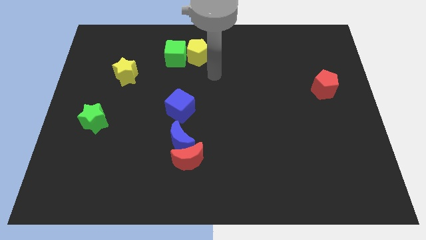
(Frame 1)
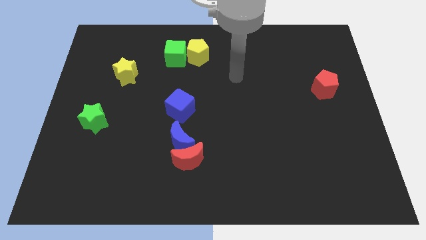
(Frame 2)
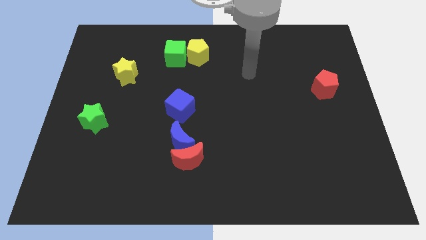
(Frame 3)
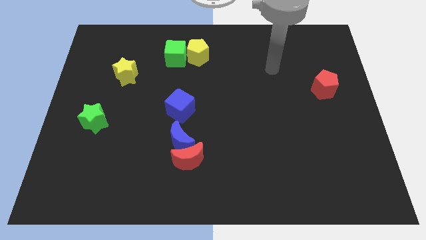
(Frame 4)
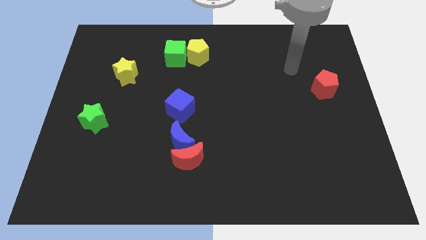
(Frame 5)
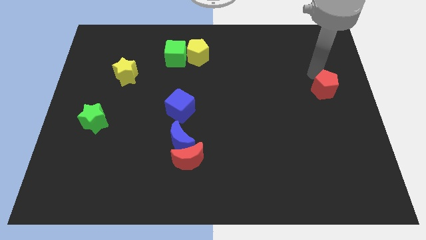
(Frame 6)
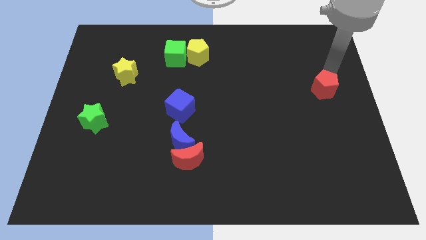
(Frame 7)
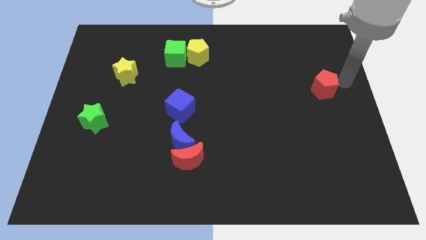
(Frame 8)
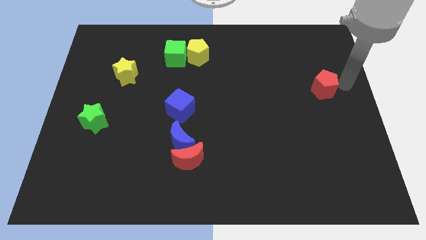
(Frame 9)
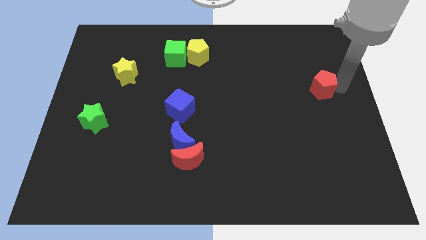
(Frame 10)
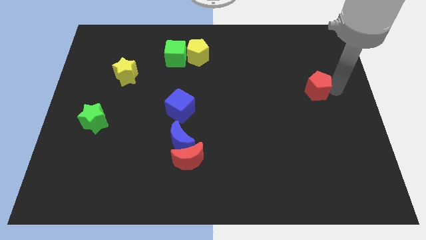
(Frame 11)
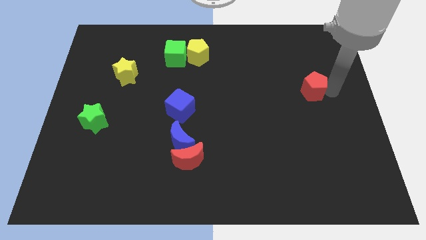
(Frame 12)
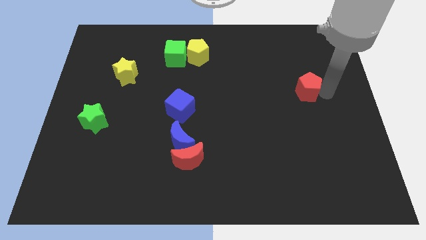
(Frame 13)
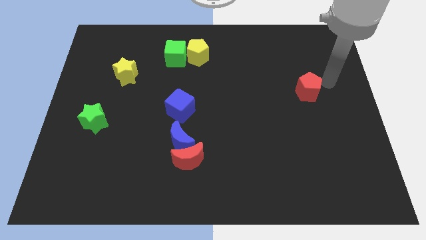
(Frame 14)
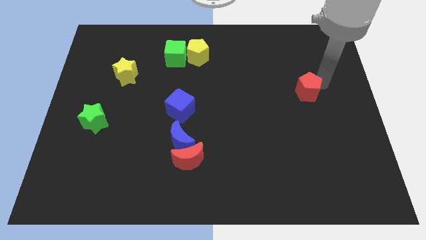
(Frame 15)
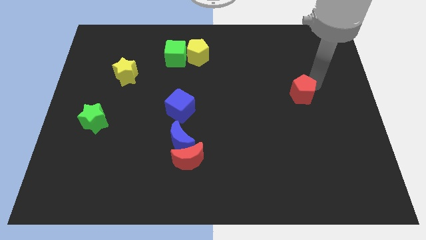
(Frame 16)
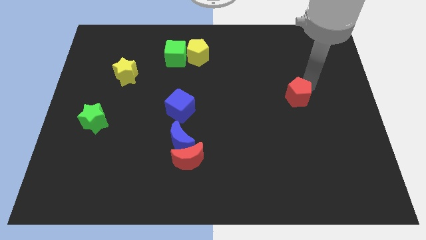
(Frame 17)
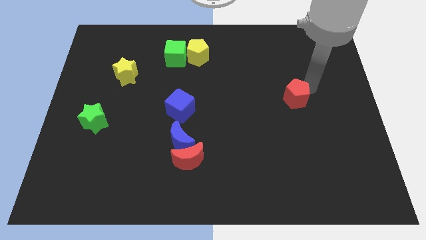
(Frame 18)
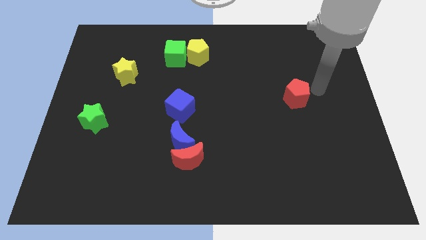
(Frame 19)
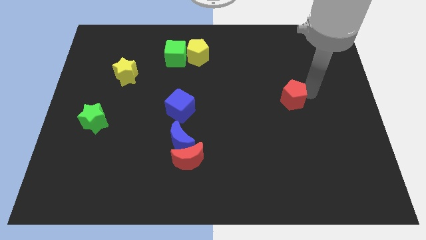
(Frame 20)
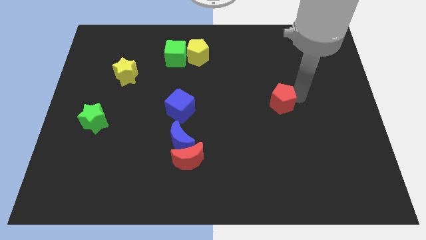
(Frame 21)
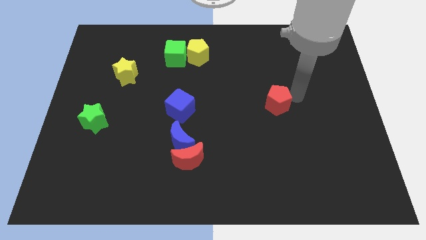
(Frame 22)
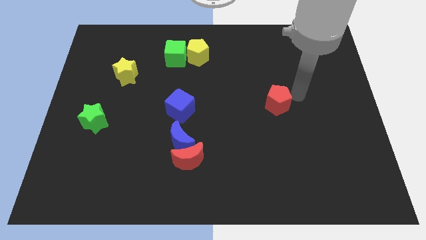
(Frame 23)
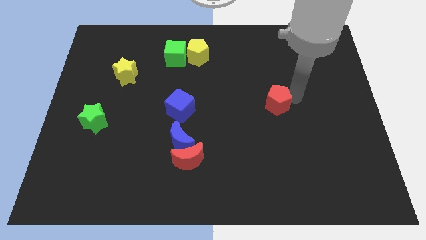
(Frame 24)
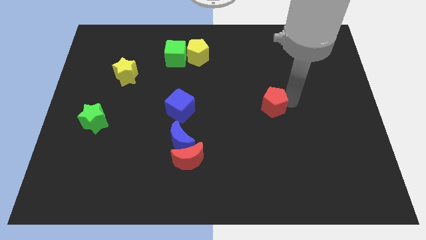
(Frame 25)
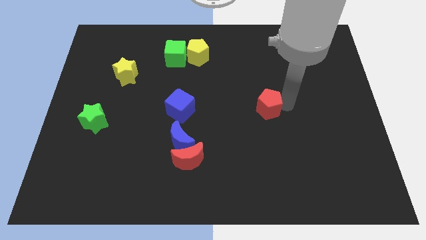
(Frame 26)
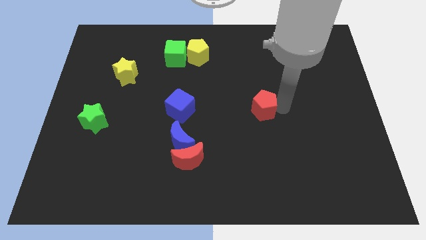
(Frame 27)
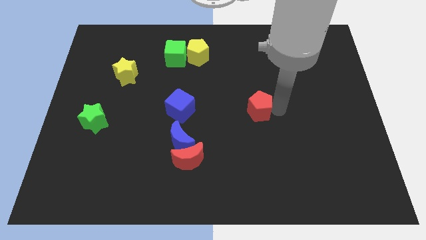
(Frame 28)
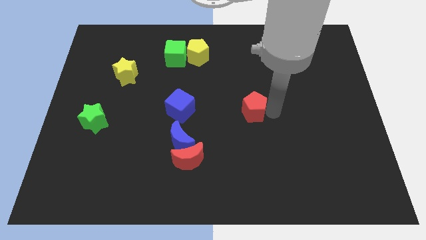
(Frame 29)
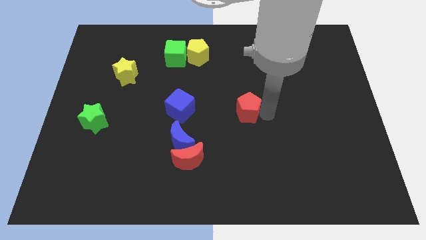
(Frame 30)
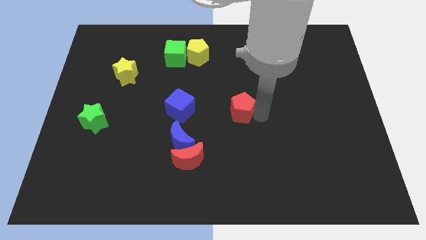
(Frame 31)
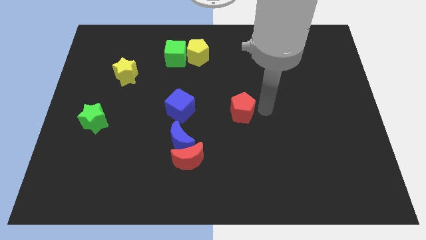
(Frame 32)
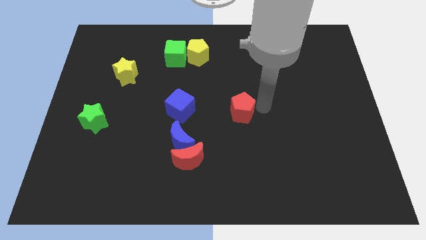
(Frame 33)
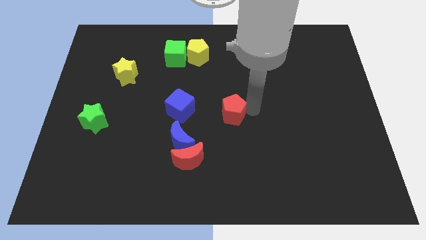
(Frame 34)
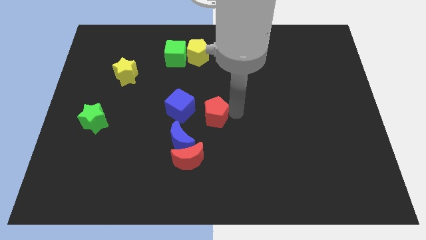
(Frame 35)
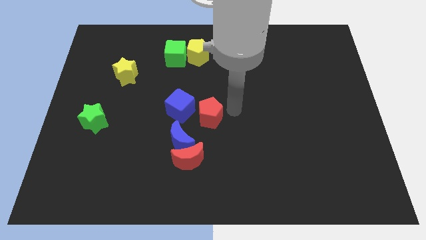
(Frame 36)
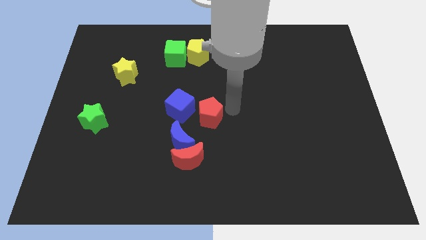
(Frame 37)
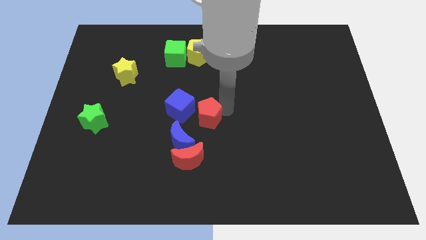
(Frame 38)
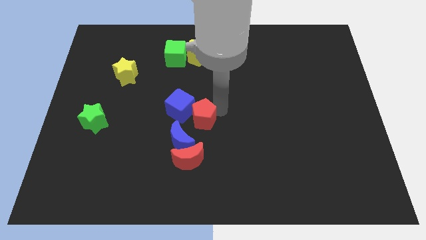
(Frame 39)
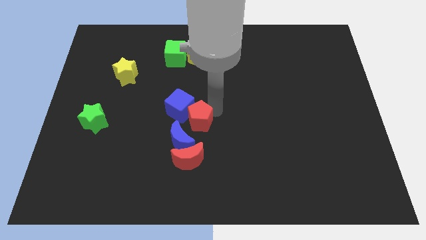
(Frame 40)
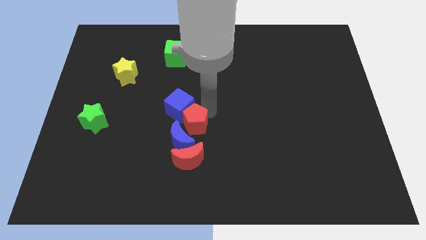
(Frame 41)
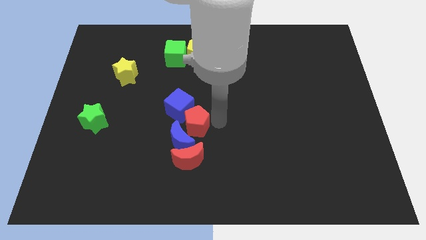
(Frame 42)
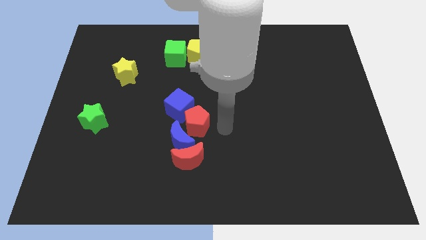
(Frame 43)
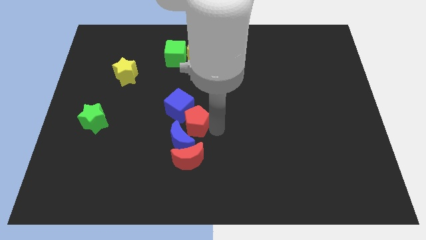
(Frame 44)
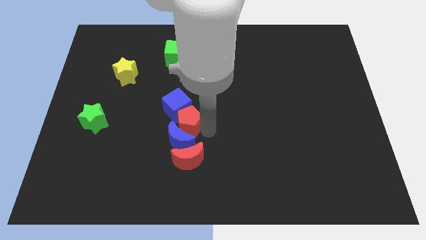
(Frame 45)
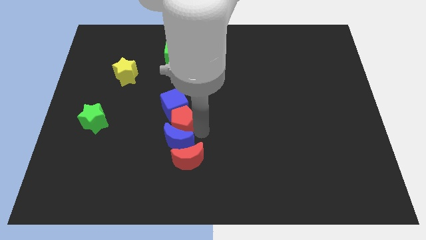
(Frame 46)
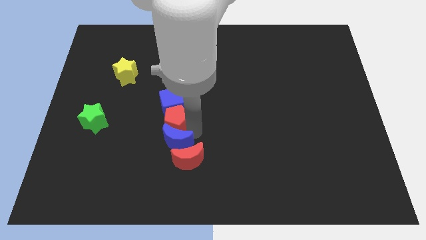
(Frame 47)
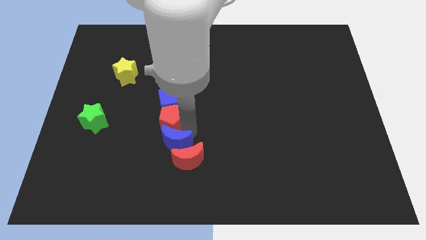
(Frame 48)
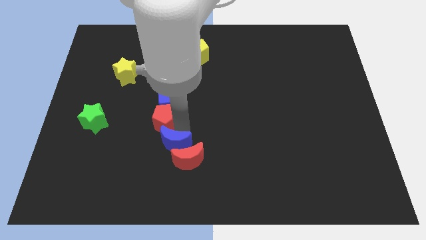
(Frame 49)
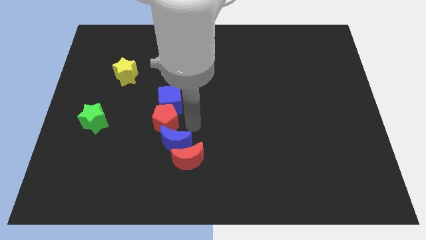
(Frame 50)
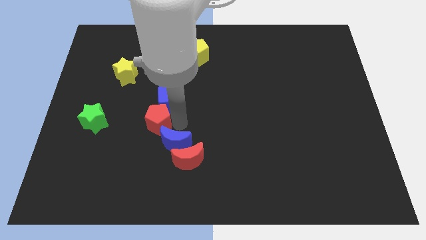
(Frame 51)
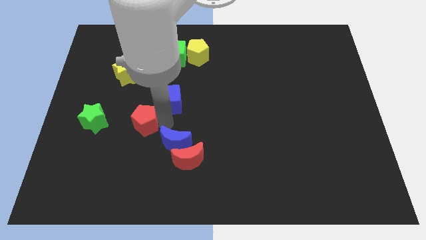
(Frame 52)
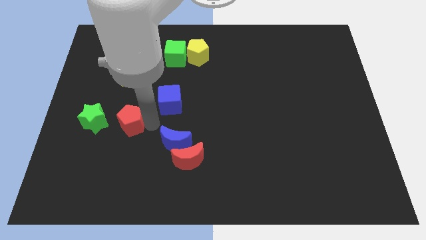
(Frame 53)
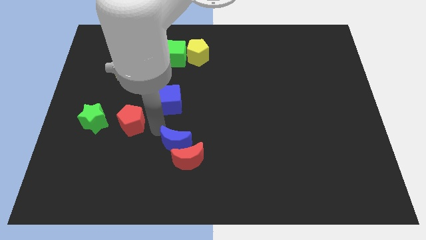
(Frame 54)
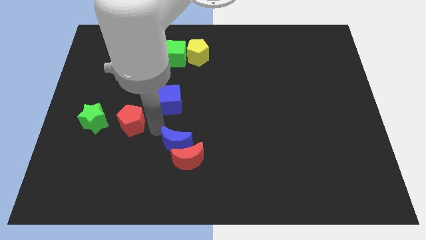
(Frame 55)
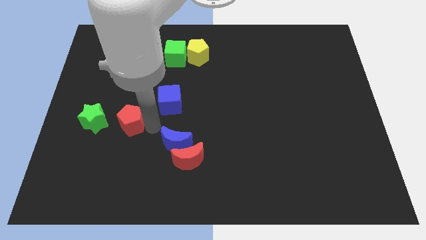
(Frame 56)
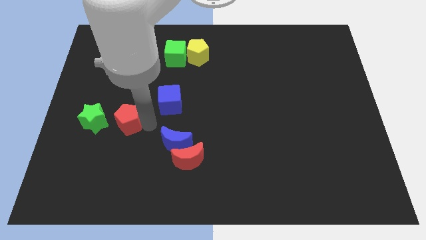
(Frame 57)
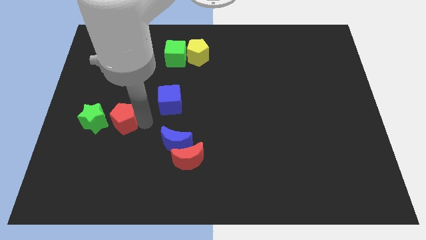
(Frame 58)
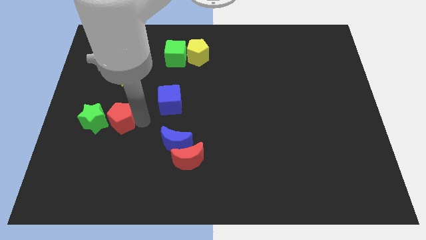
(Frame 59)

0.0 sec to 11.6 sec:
push the red pentagon to the green star

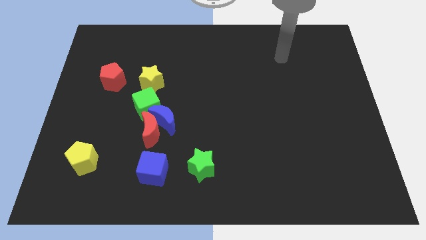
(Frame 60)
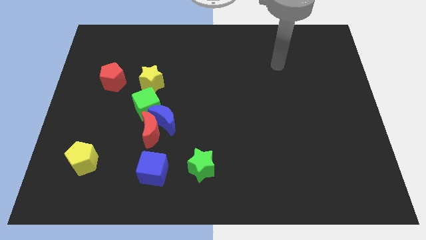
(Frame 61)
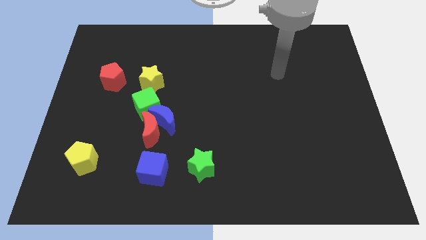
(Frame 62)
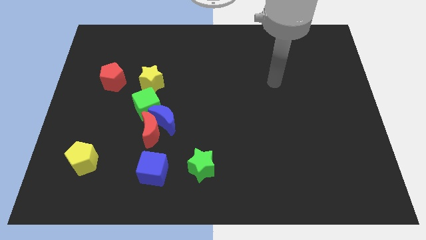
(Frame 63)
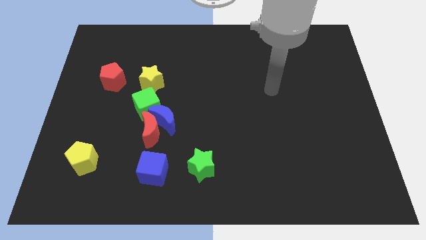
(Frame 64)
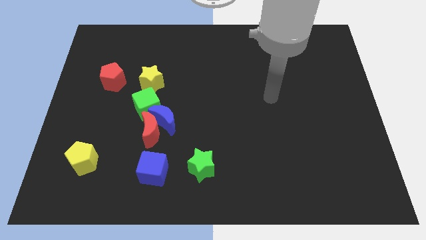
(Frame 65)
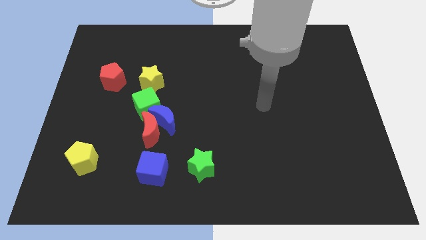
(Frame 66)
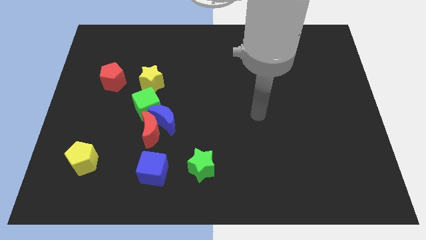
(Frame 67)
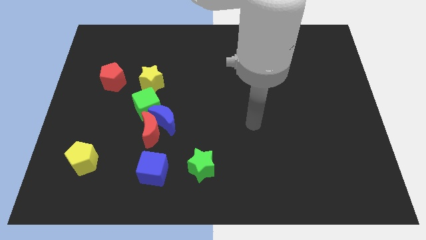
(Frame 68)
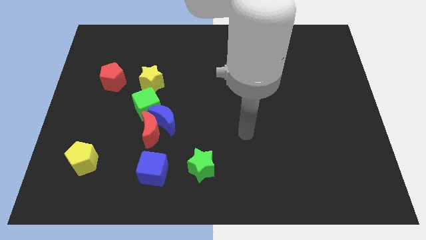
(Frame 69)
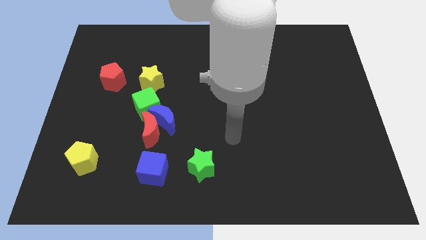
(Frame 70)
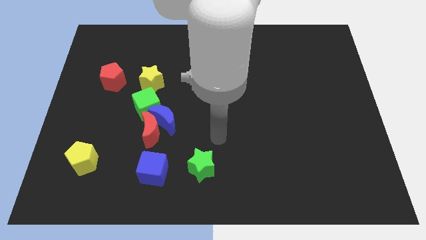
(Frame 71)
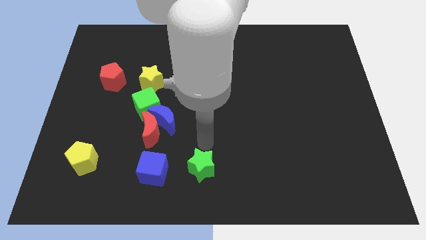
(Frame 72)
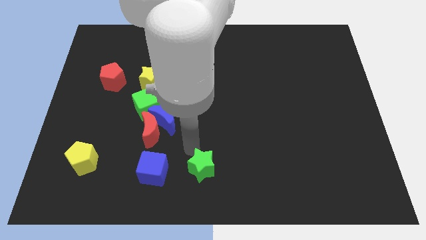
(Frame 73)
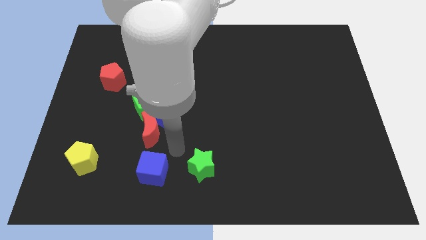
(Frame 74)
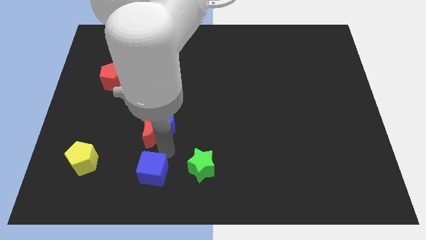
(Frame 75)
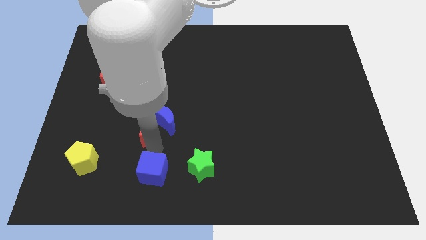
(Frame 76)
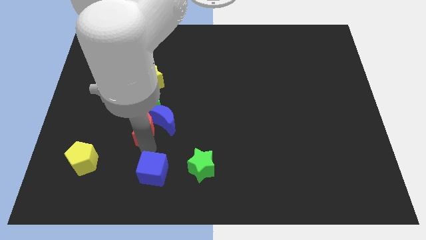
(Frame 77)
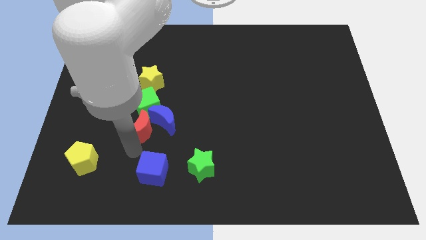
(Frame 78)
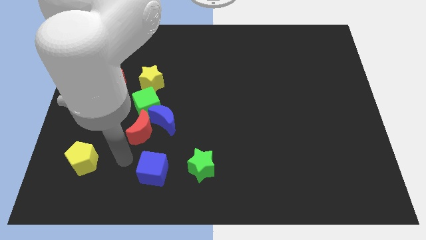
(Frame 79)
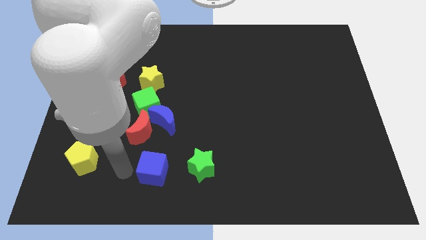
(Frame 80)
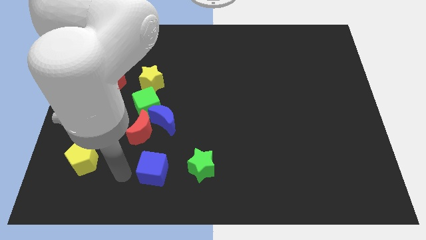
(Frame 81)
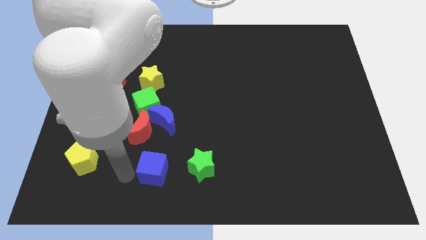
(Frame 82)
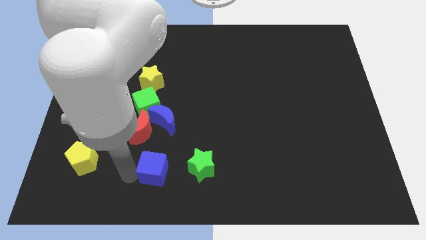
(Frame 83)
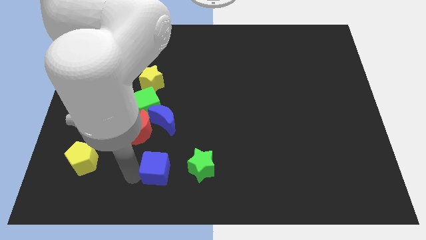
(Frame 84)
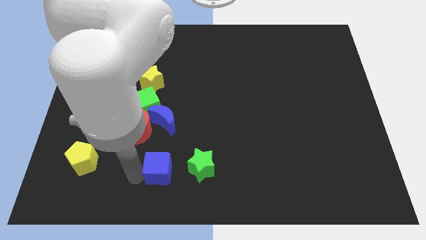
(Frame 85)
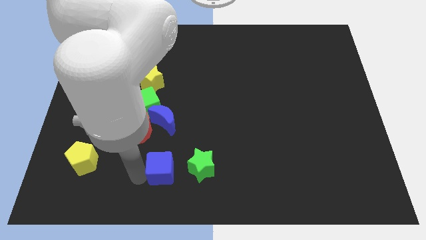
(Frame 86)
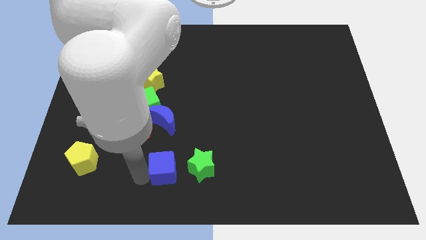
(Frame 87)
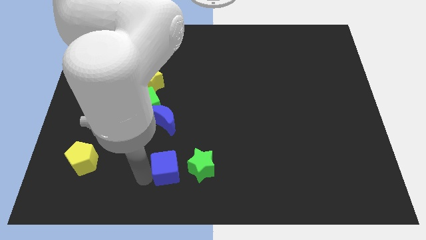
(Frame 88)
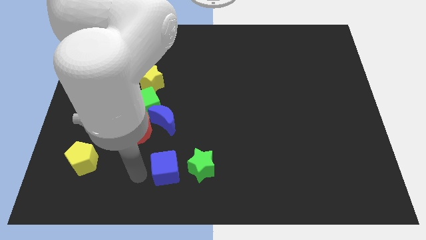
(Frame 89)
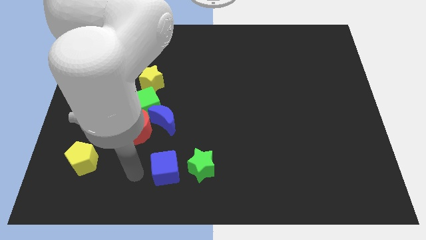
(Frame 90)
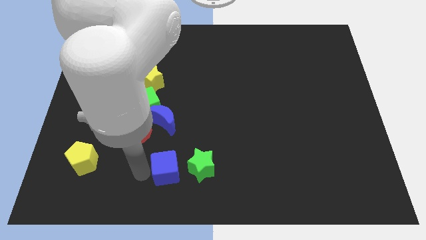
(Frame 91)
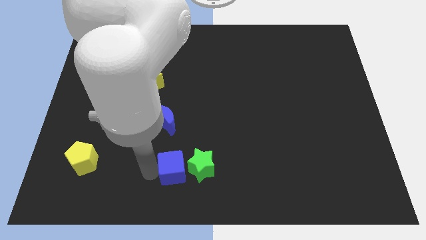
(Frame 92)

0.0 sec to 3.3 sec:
push the blue cube next to the green star
